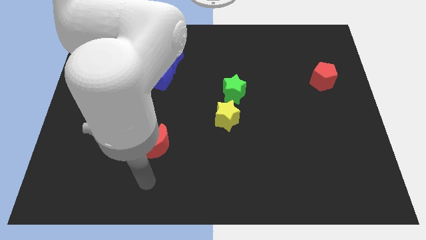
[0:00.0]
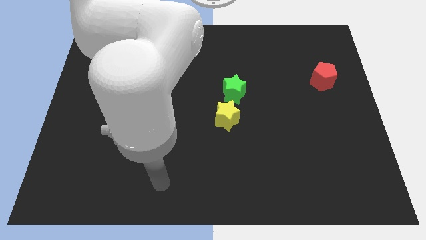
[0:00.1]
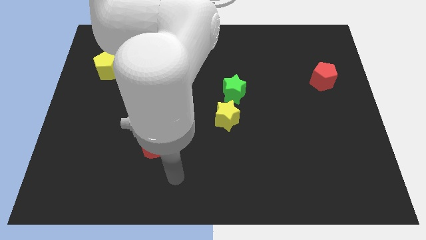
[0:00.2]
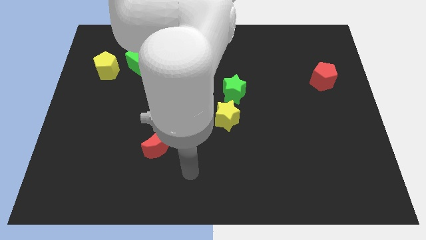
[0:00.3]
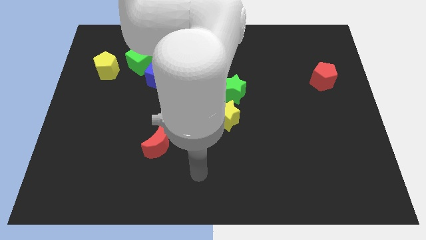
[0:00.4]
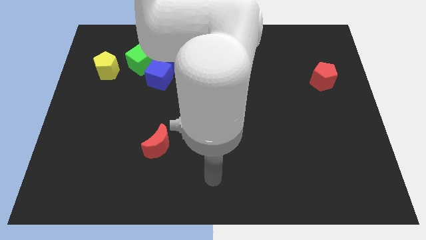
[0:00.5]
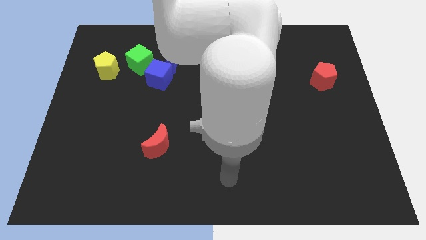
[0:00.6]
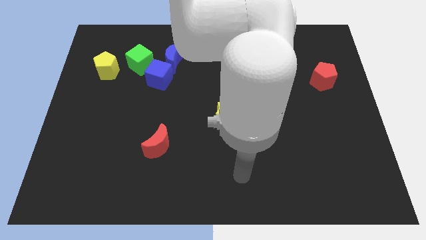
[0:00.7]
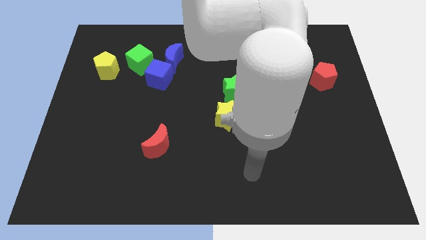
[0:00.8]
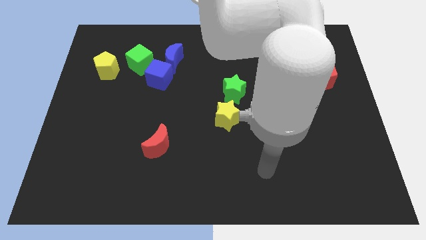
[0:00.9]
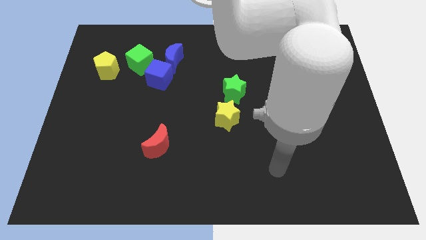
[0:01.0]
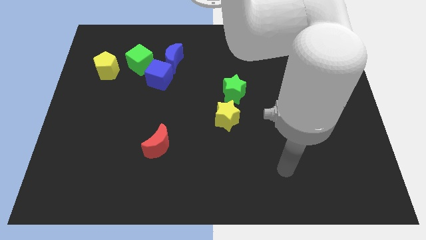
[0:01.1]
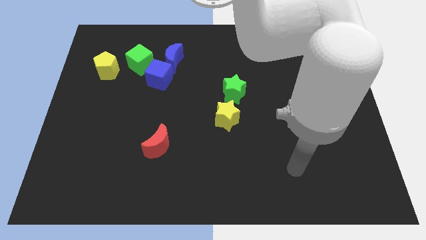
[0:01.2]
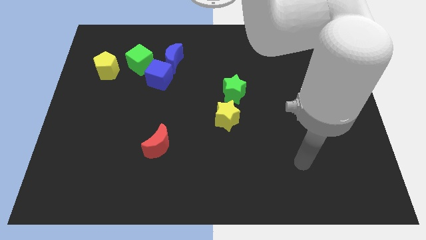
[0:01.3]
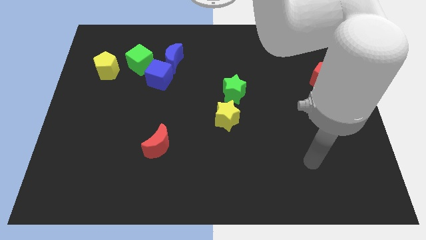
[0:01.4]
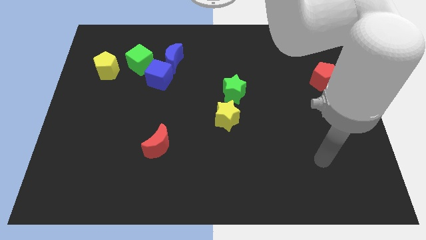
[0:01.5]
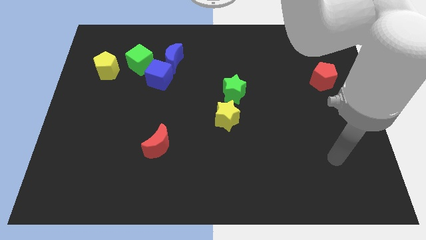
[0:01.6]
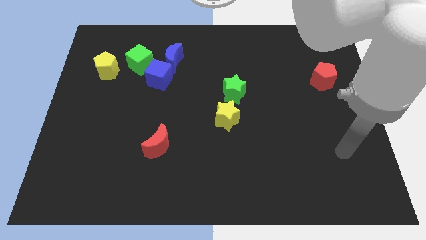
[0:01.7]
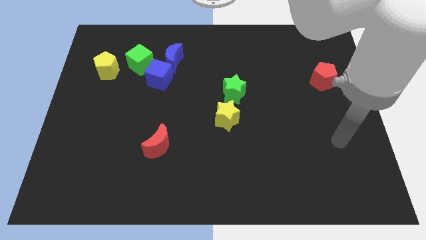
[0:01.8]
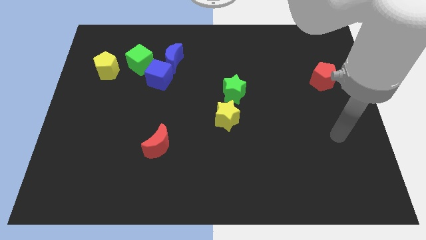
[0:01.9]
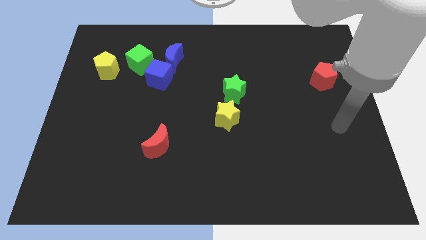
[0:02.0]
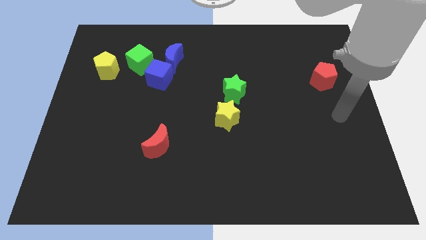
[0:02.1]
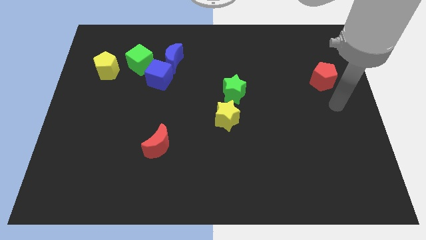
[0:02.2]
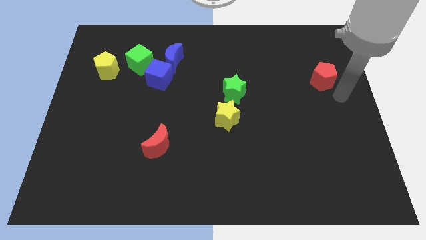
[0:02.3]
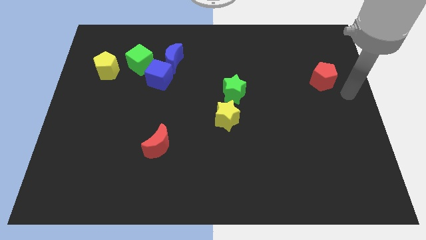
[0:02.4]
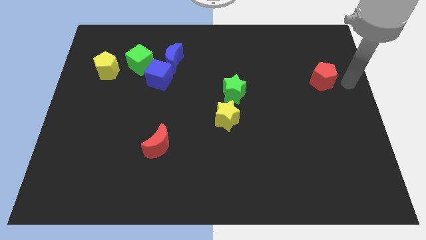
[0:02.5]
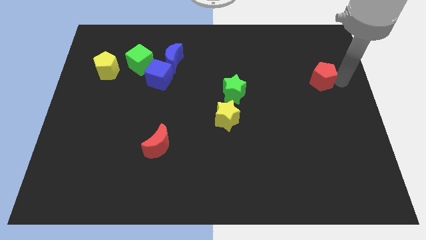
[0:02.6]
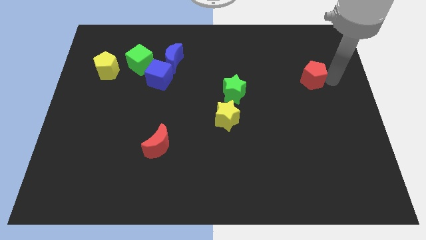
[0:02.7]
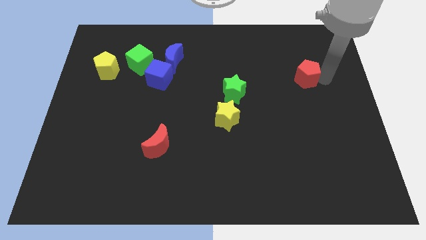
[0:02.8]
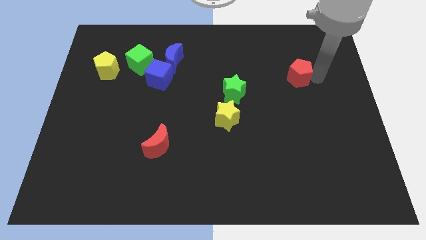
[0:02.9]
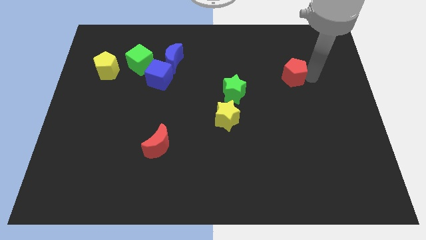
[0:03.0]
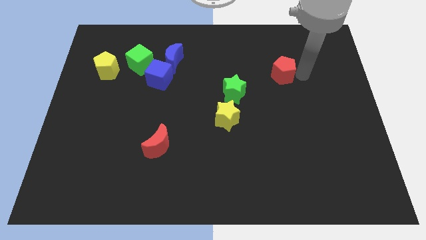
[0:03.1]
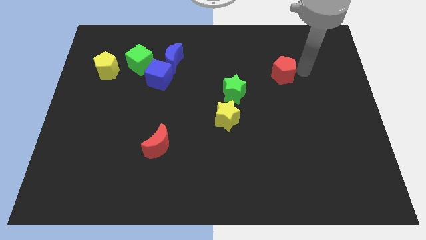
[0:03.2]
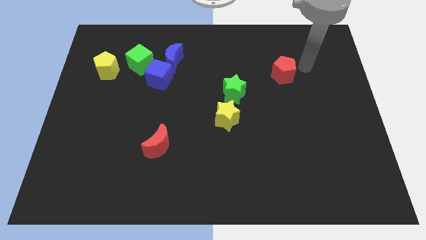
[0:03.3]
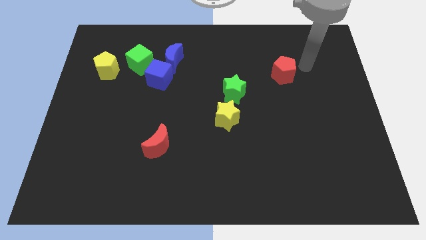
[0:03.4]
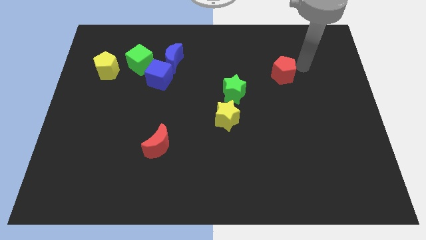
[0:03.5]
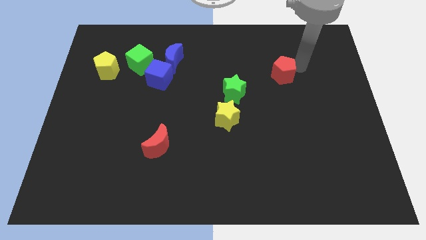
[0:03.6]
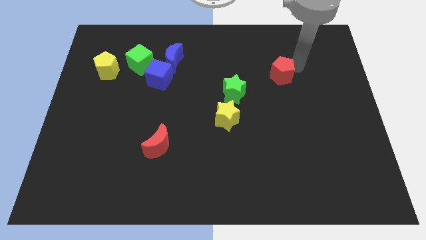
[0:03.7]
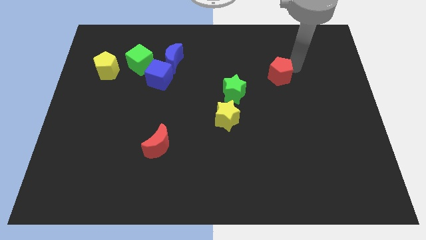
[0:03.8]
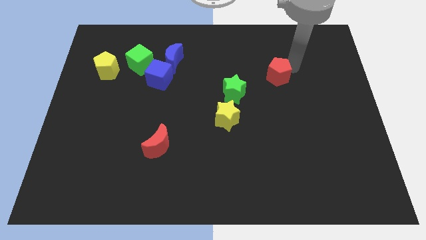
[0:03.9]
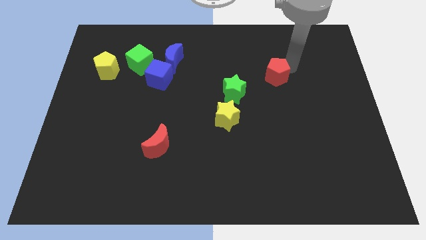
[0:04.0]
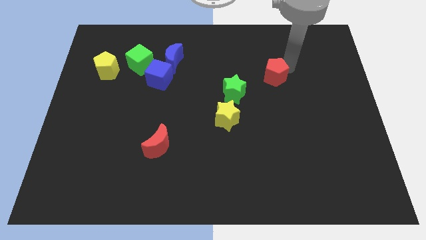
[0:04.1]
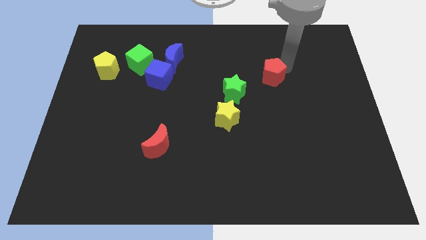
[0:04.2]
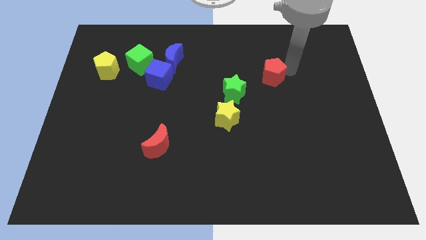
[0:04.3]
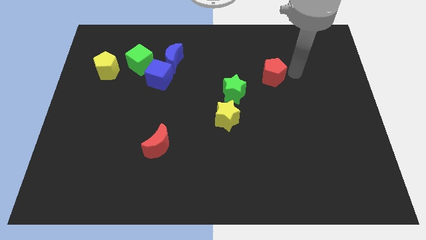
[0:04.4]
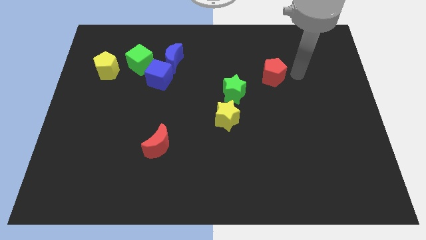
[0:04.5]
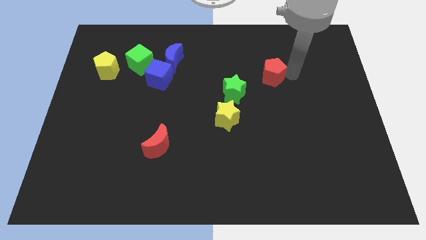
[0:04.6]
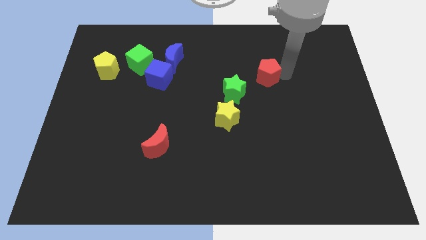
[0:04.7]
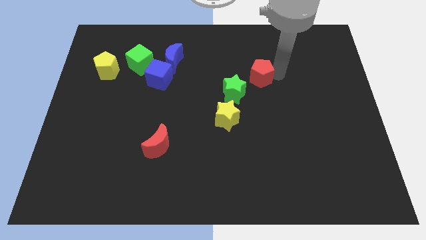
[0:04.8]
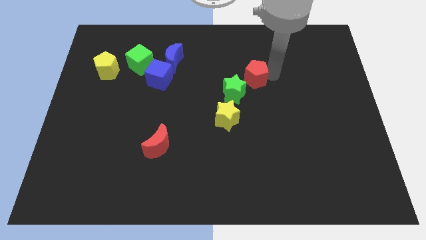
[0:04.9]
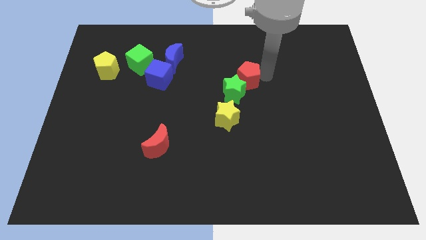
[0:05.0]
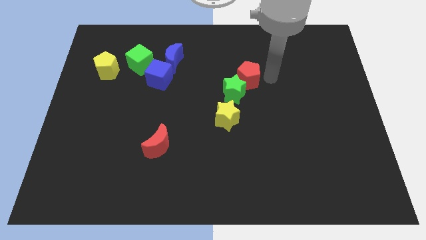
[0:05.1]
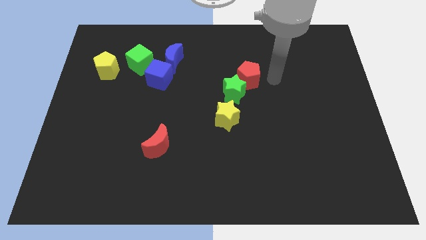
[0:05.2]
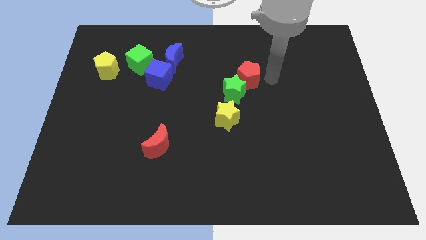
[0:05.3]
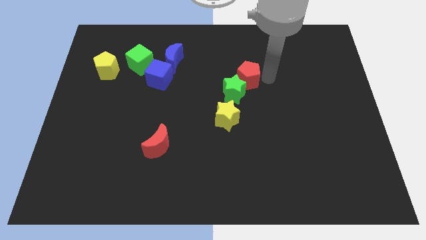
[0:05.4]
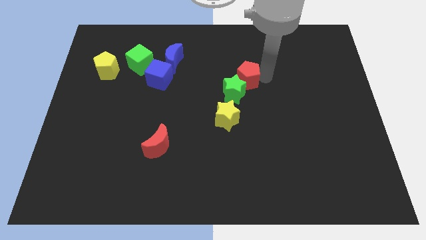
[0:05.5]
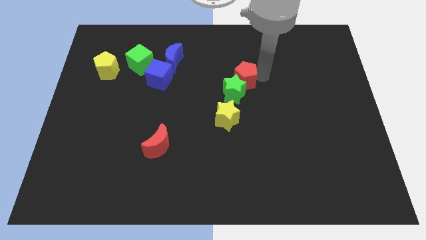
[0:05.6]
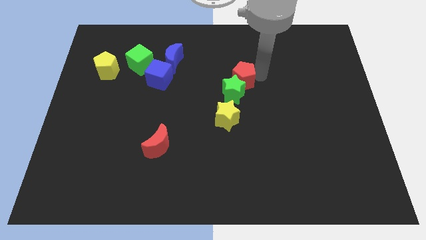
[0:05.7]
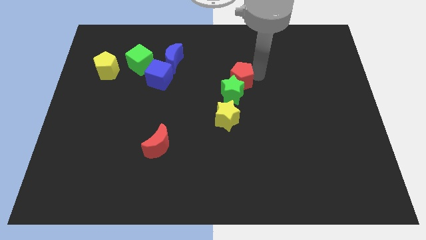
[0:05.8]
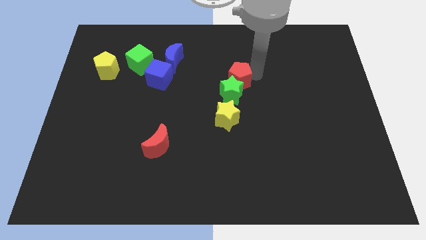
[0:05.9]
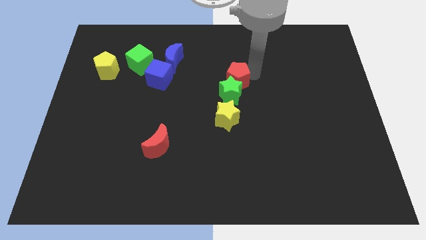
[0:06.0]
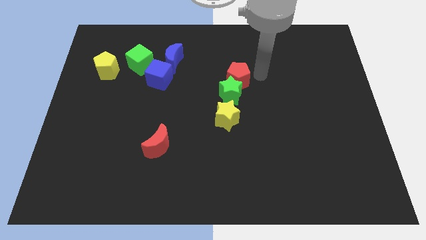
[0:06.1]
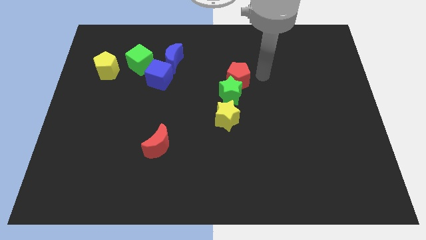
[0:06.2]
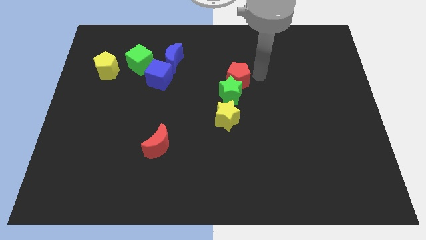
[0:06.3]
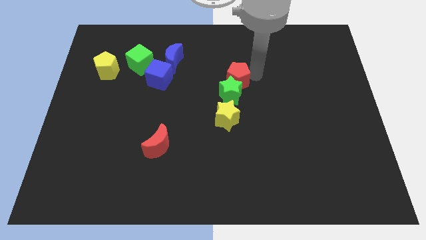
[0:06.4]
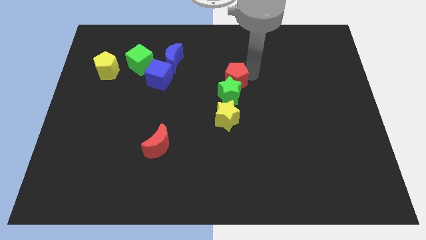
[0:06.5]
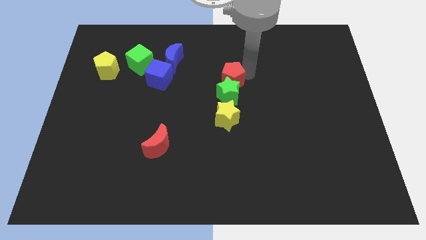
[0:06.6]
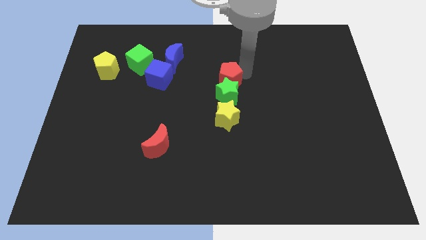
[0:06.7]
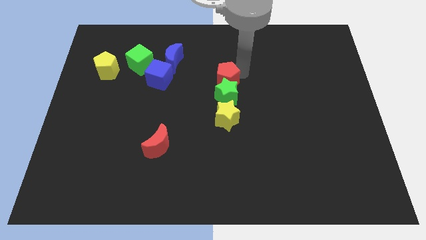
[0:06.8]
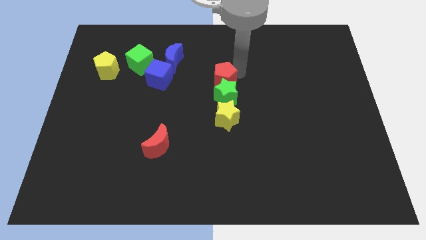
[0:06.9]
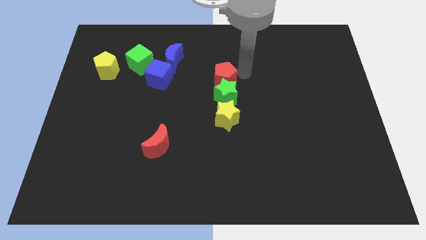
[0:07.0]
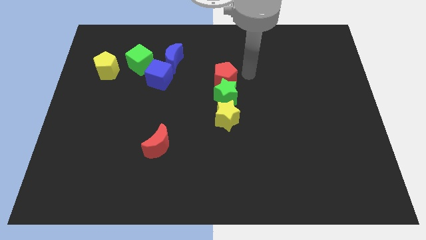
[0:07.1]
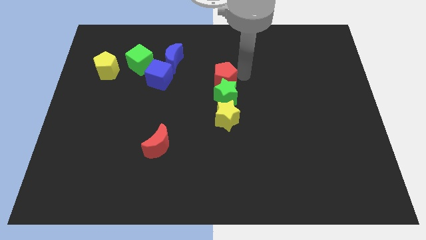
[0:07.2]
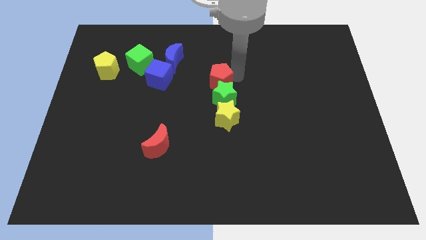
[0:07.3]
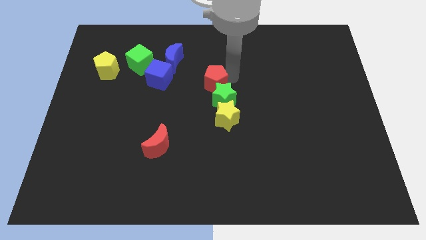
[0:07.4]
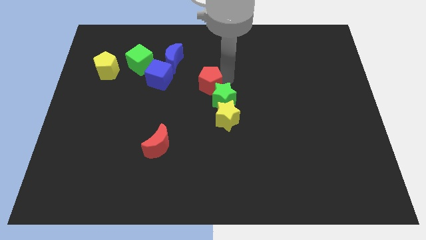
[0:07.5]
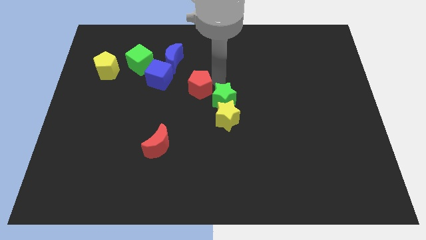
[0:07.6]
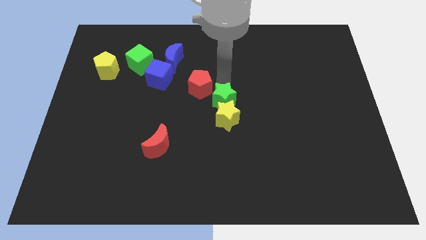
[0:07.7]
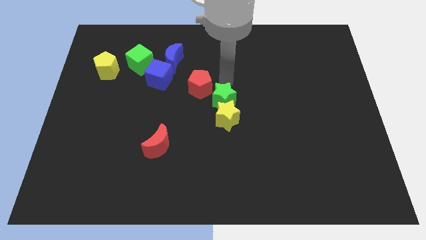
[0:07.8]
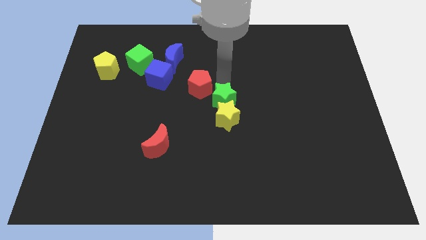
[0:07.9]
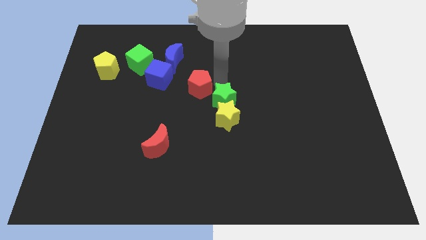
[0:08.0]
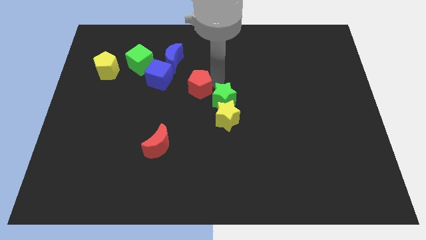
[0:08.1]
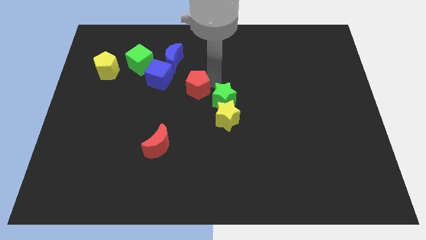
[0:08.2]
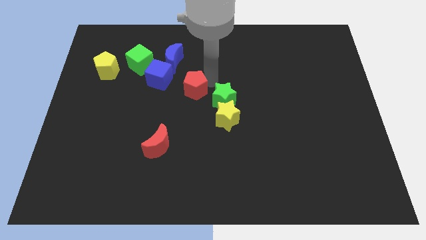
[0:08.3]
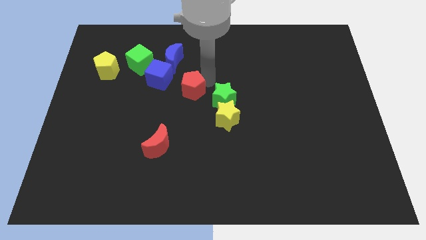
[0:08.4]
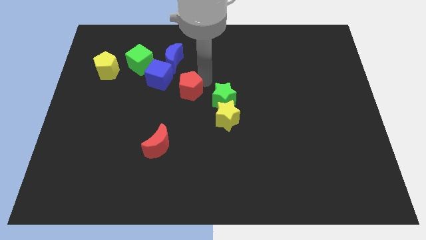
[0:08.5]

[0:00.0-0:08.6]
put the red pentagon to the bottom of the blue moon
